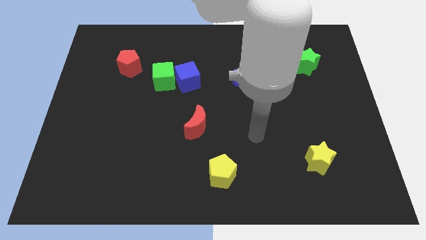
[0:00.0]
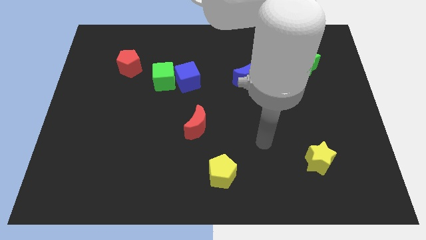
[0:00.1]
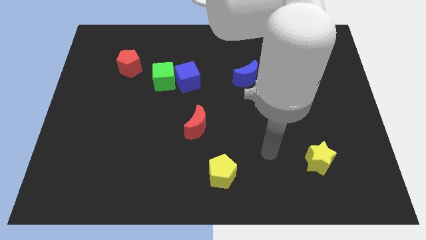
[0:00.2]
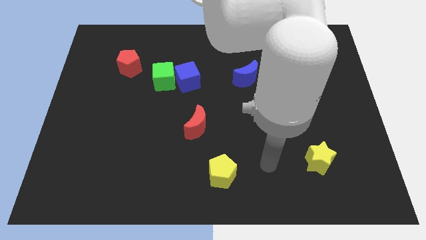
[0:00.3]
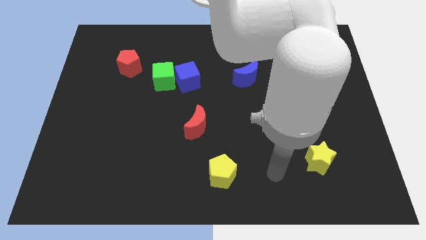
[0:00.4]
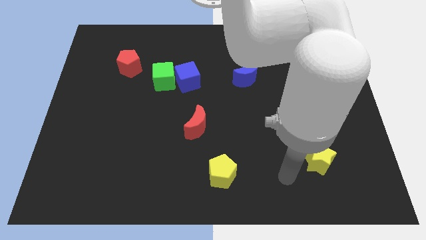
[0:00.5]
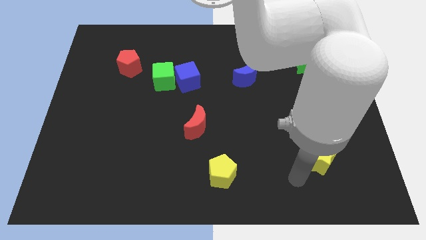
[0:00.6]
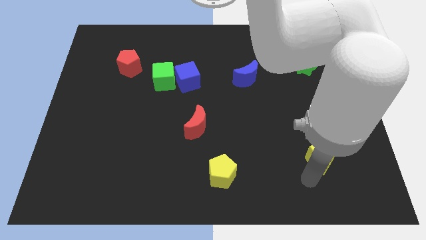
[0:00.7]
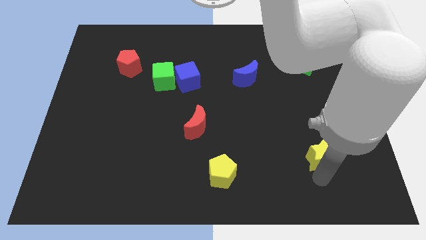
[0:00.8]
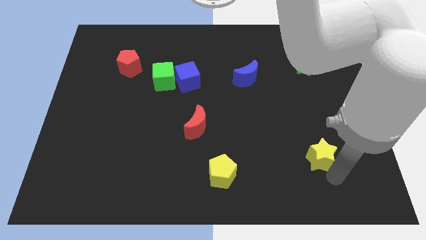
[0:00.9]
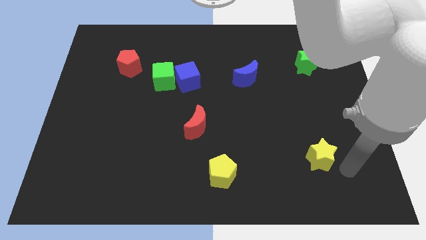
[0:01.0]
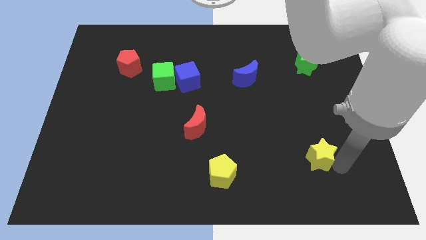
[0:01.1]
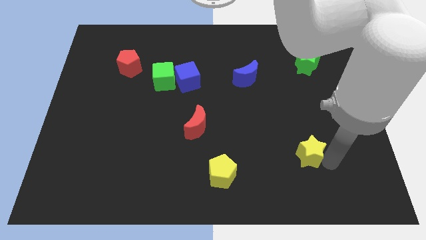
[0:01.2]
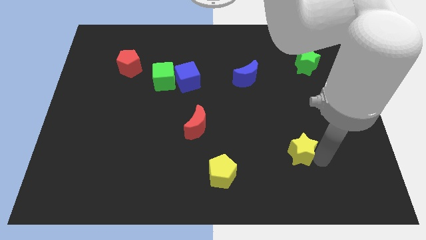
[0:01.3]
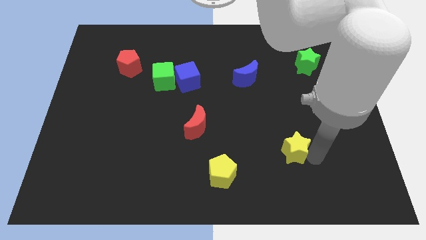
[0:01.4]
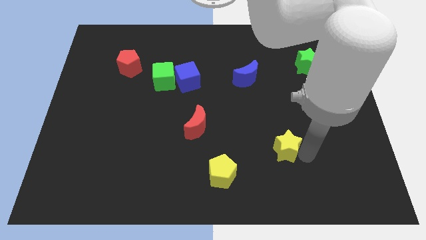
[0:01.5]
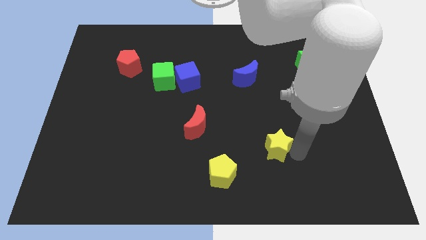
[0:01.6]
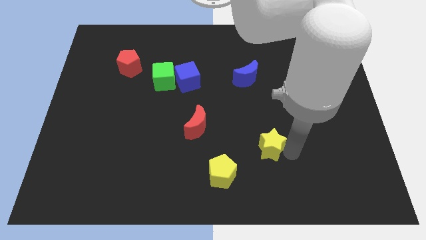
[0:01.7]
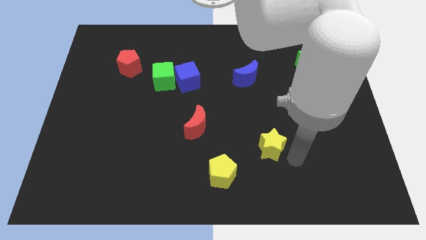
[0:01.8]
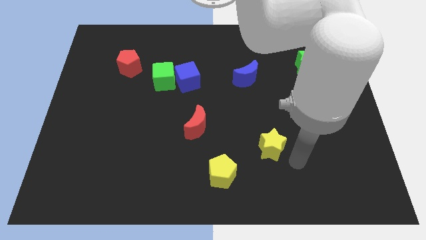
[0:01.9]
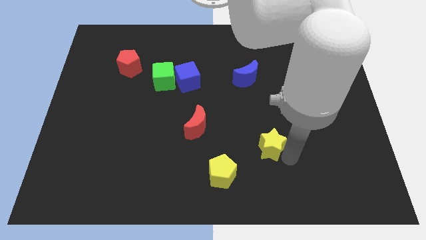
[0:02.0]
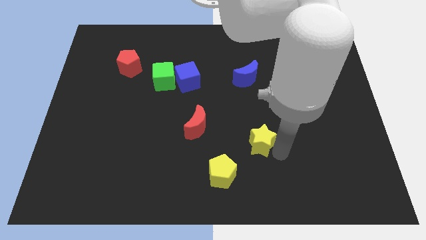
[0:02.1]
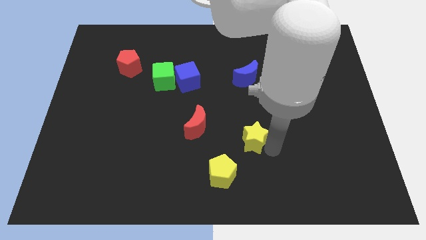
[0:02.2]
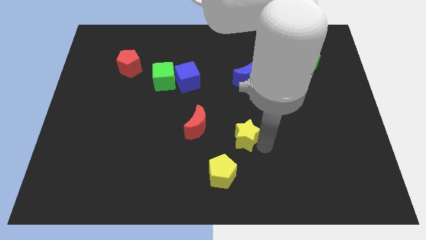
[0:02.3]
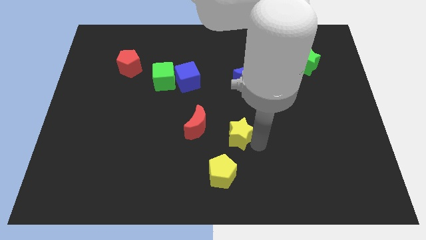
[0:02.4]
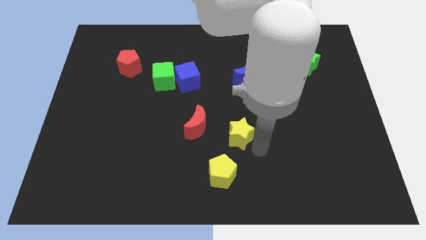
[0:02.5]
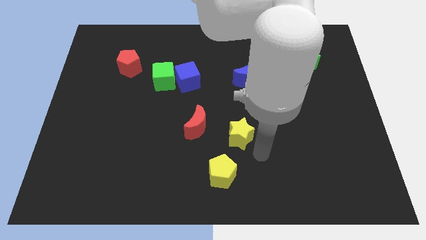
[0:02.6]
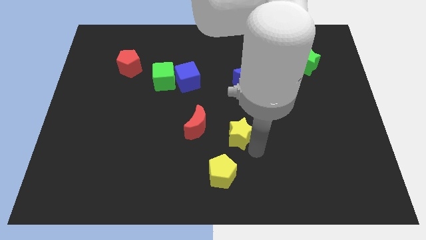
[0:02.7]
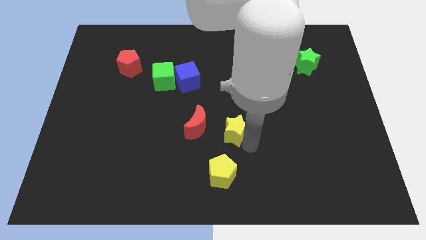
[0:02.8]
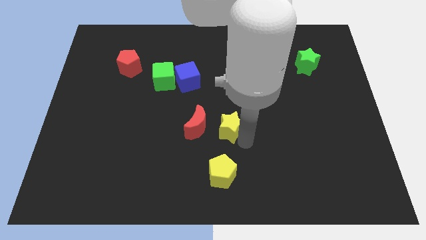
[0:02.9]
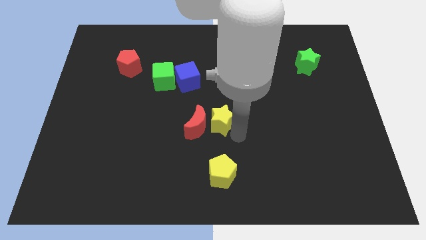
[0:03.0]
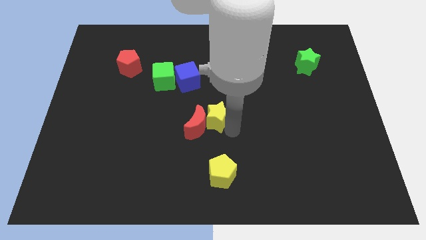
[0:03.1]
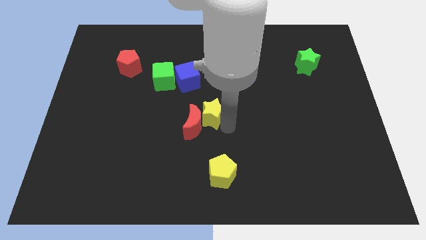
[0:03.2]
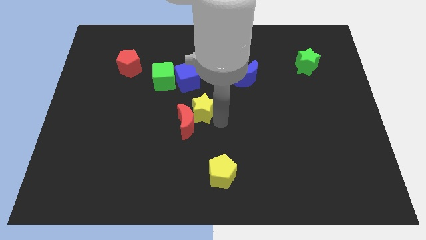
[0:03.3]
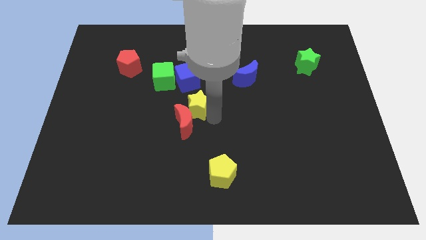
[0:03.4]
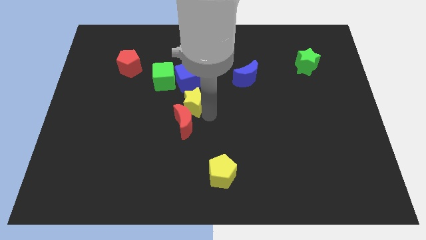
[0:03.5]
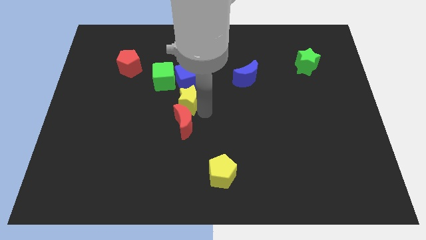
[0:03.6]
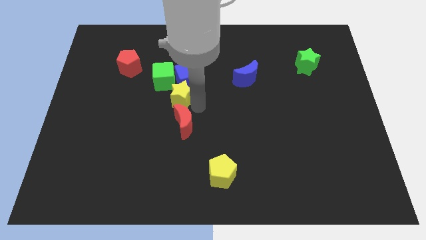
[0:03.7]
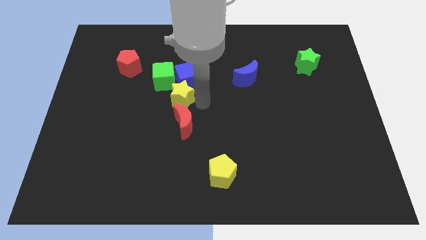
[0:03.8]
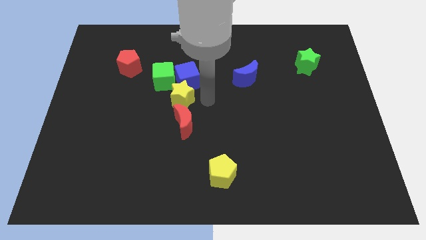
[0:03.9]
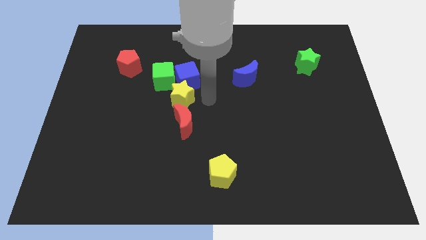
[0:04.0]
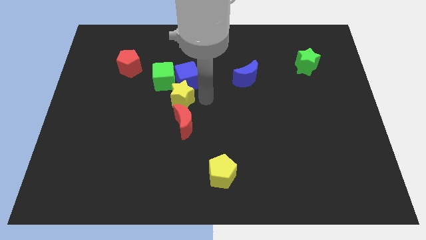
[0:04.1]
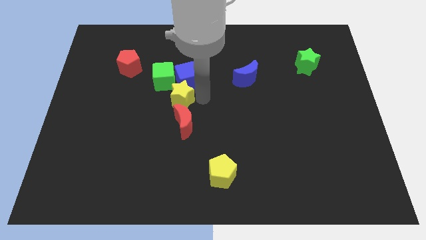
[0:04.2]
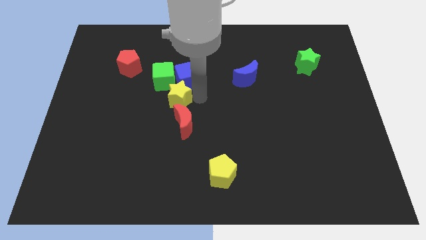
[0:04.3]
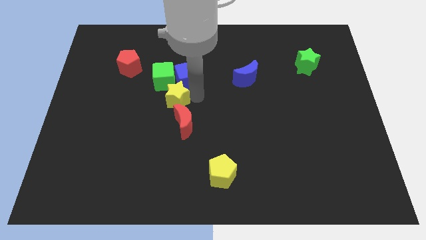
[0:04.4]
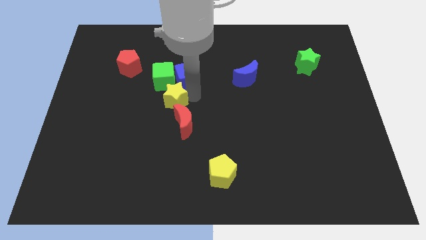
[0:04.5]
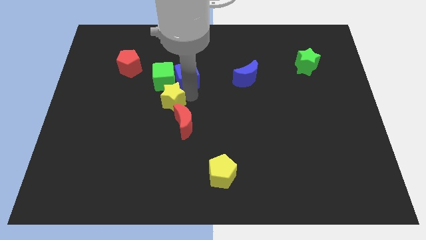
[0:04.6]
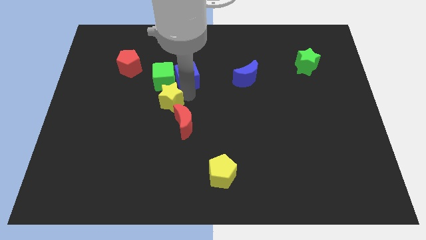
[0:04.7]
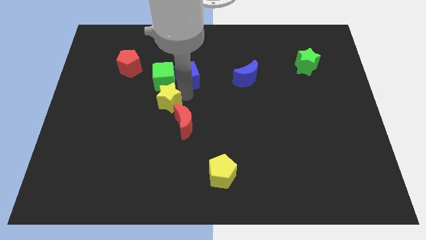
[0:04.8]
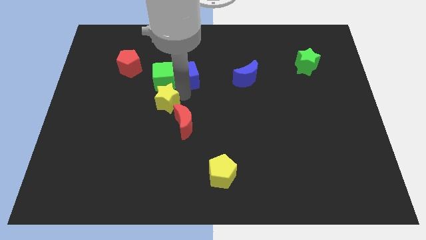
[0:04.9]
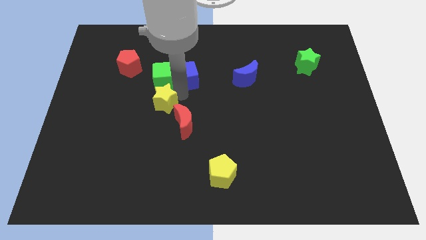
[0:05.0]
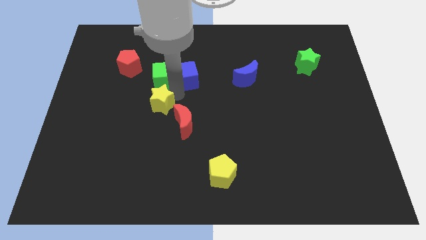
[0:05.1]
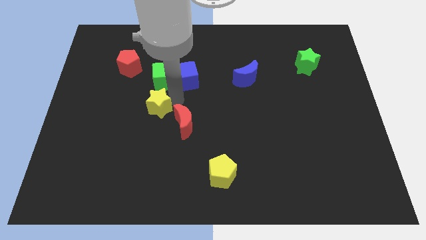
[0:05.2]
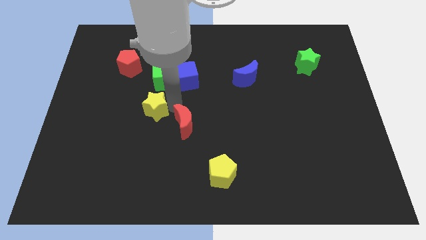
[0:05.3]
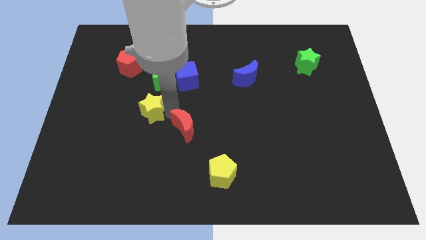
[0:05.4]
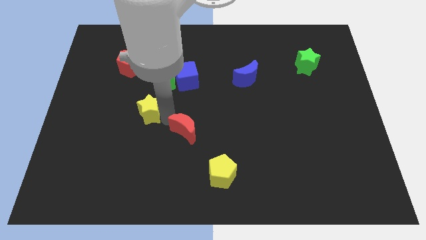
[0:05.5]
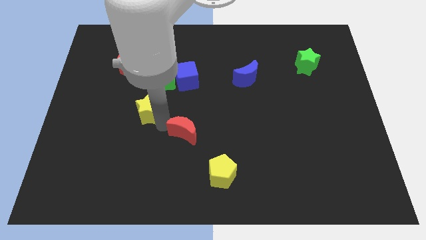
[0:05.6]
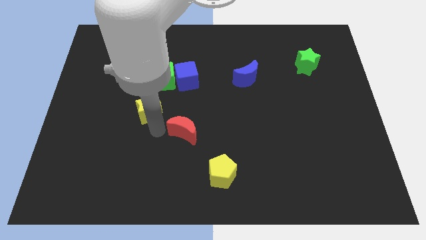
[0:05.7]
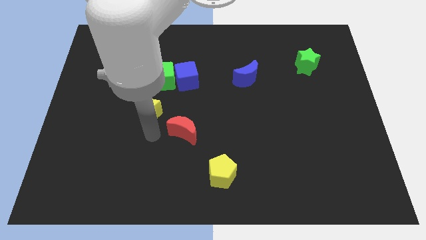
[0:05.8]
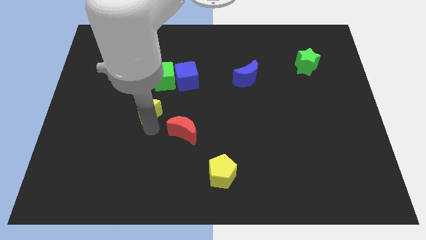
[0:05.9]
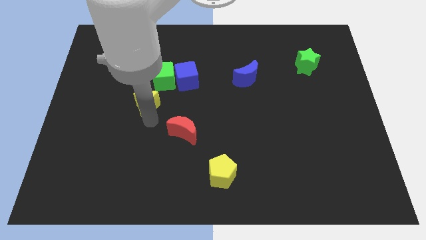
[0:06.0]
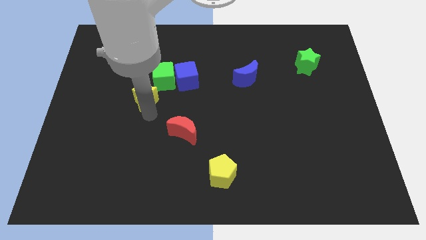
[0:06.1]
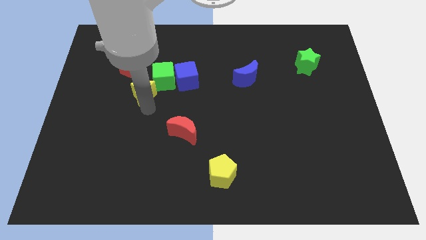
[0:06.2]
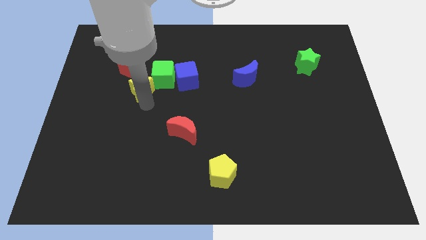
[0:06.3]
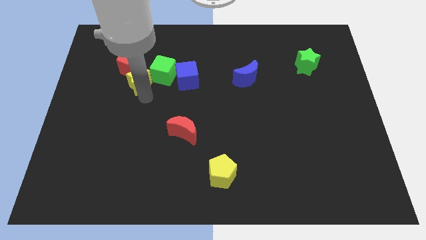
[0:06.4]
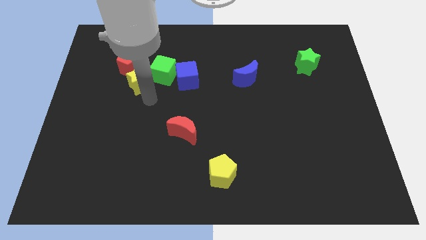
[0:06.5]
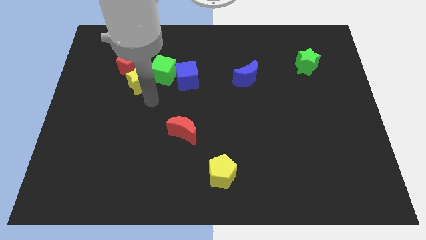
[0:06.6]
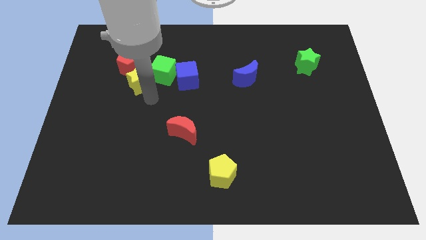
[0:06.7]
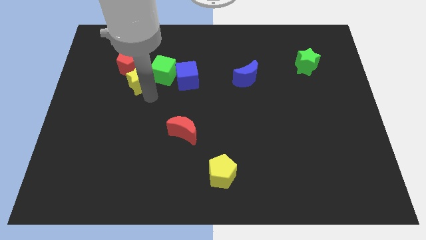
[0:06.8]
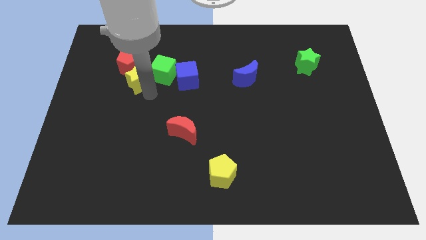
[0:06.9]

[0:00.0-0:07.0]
move the yellow star close to the red pentagon
